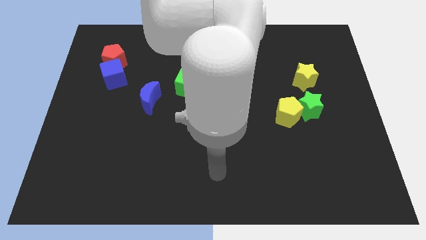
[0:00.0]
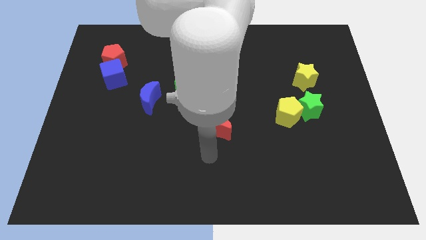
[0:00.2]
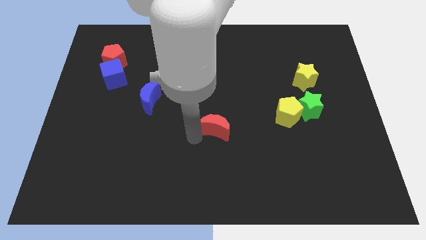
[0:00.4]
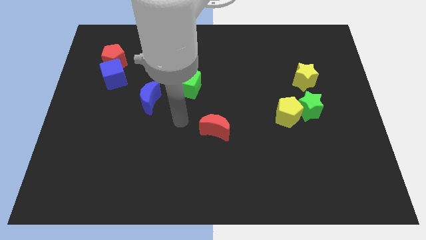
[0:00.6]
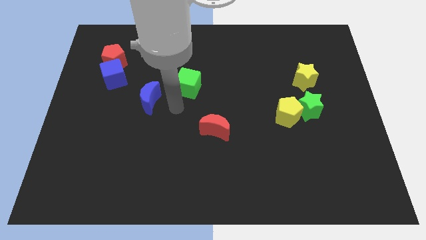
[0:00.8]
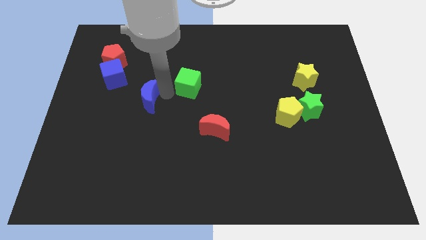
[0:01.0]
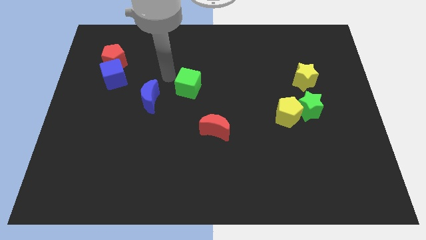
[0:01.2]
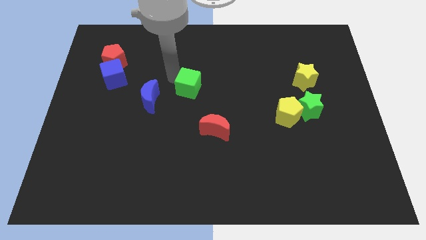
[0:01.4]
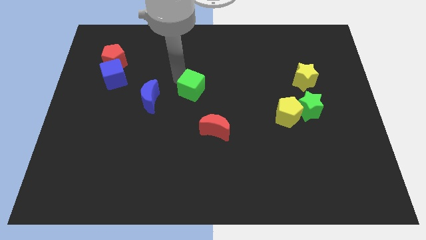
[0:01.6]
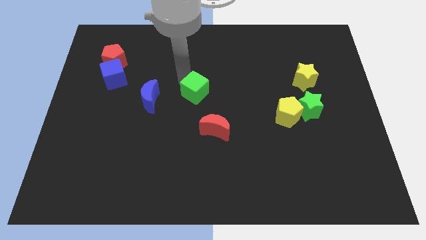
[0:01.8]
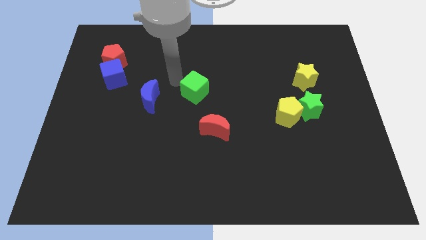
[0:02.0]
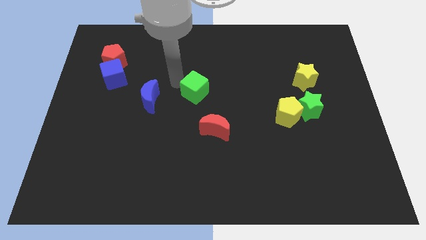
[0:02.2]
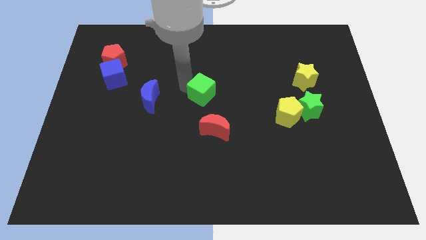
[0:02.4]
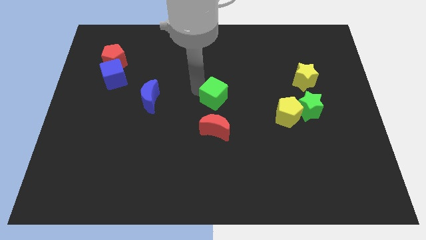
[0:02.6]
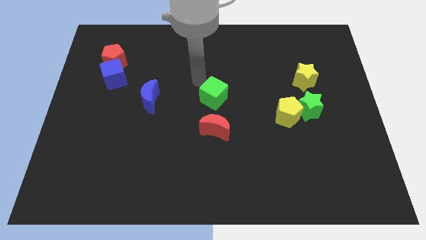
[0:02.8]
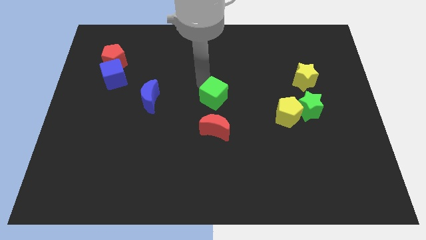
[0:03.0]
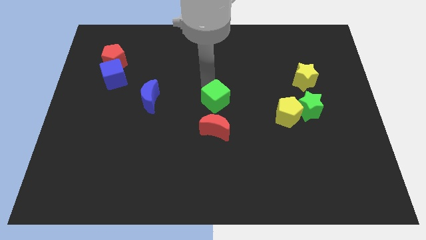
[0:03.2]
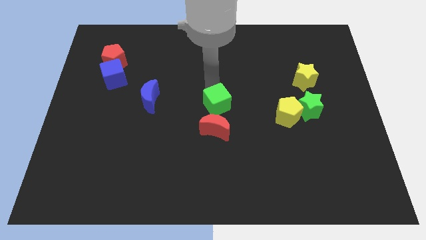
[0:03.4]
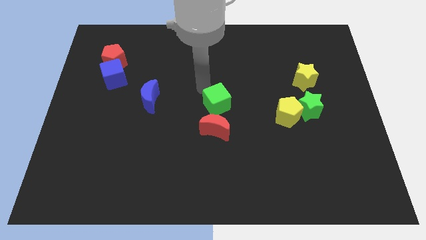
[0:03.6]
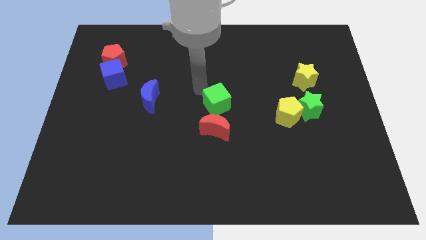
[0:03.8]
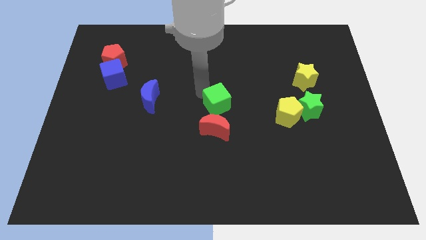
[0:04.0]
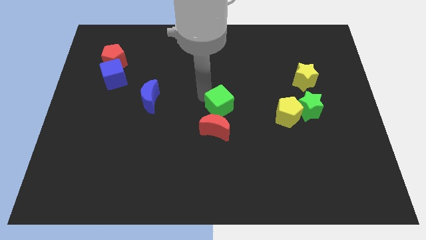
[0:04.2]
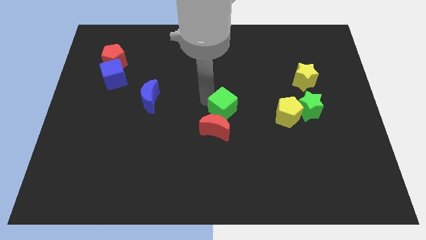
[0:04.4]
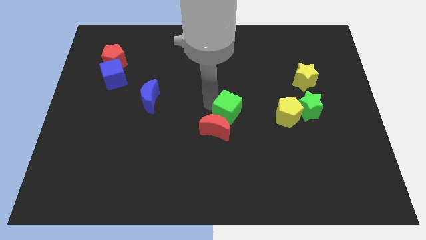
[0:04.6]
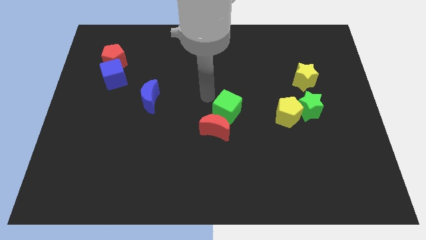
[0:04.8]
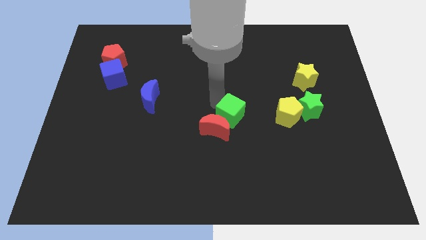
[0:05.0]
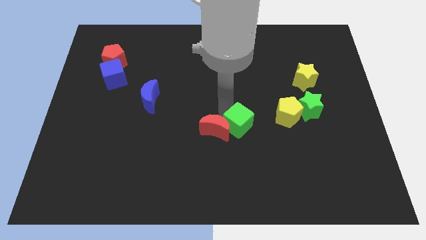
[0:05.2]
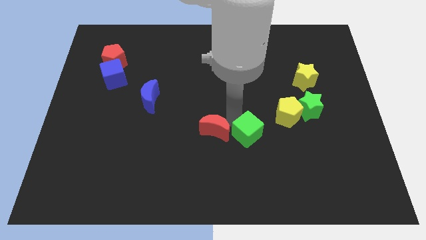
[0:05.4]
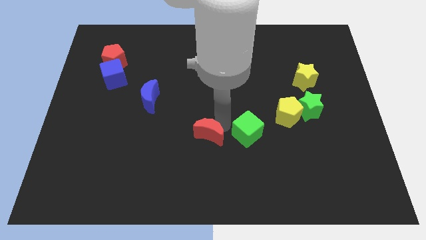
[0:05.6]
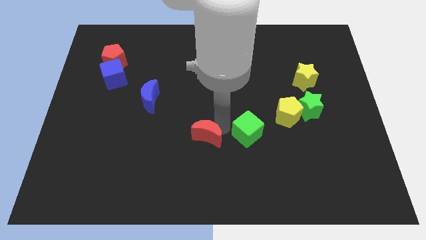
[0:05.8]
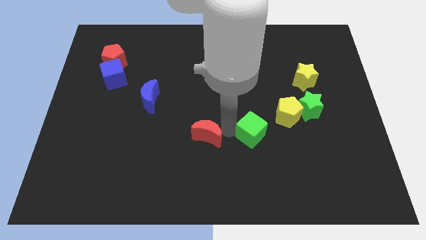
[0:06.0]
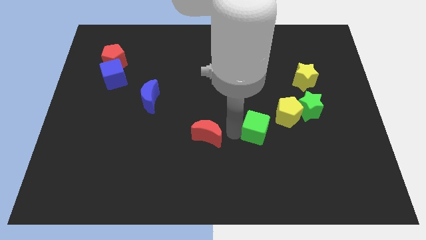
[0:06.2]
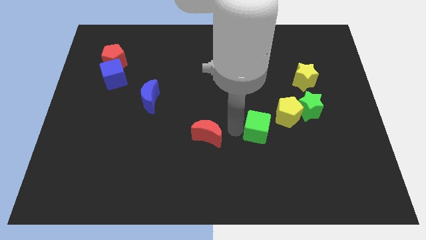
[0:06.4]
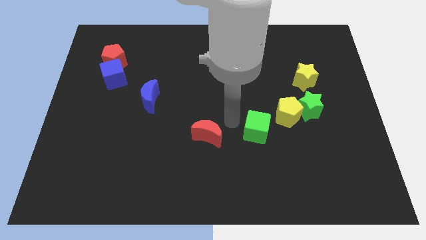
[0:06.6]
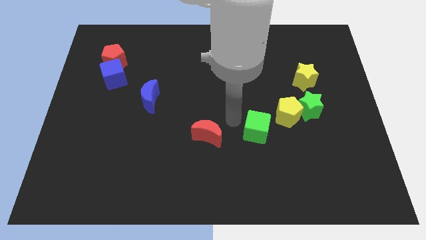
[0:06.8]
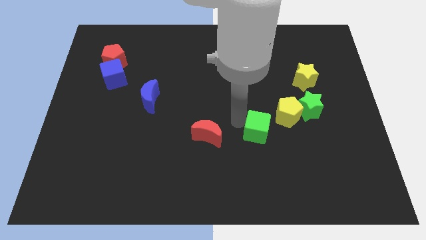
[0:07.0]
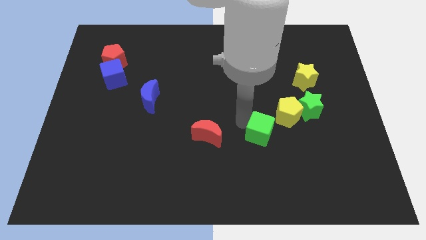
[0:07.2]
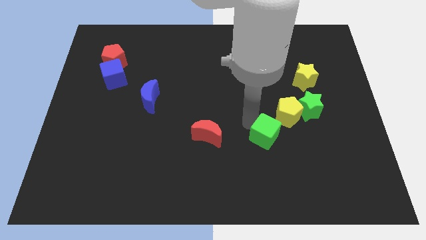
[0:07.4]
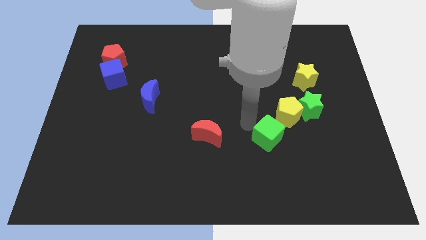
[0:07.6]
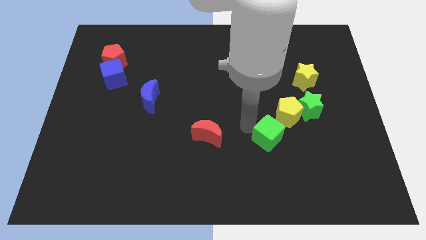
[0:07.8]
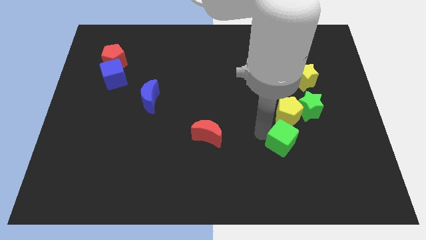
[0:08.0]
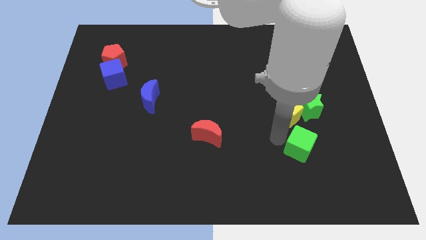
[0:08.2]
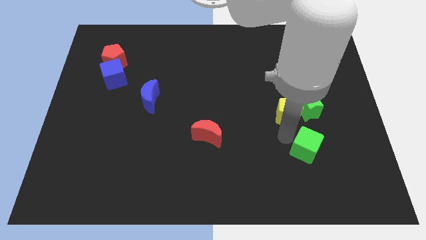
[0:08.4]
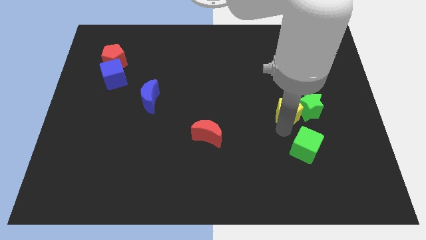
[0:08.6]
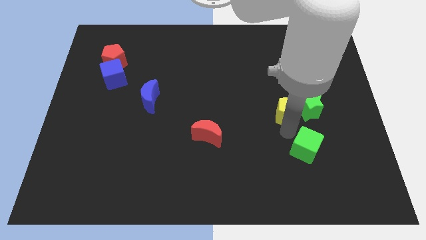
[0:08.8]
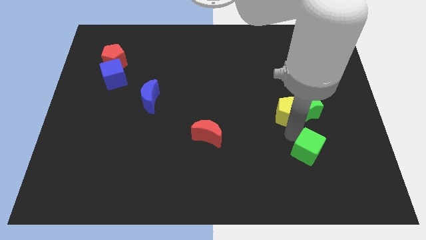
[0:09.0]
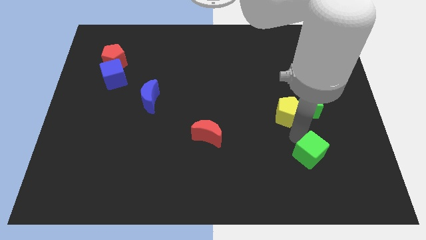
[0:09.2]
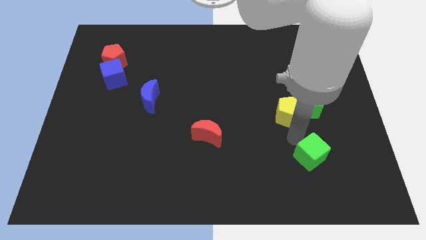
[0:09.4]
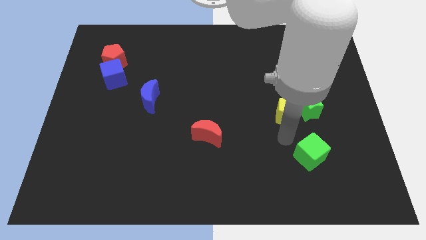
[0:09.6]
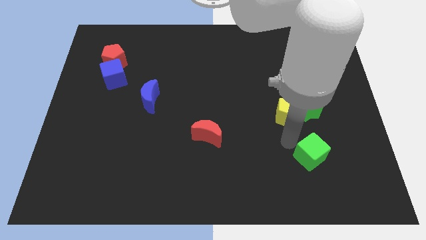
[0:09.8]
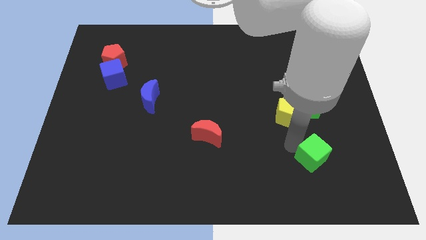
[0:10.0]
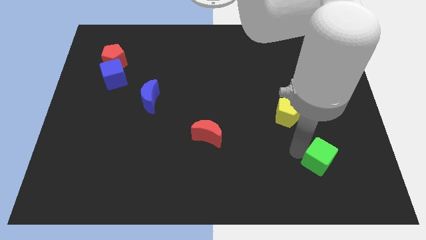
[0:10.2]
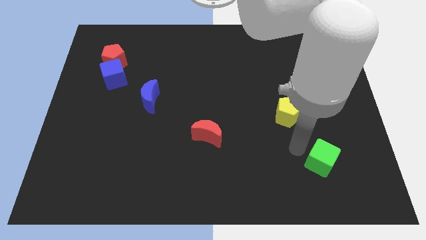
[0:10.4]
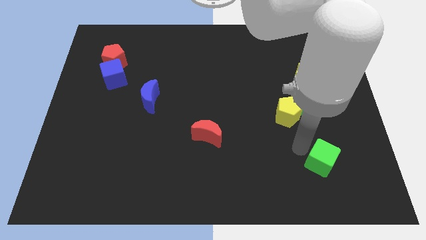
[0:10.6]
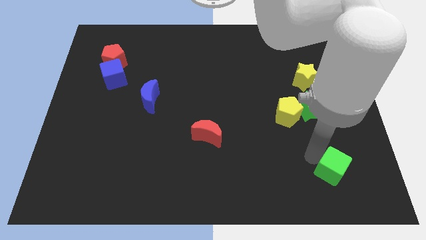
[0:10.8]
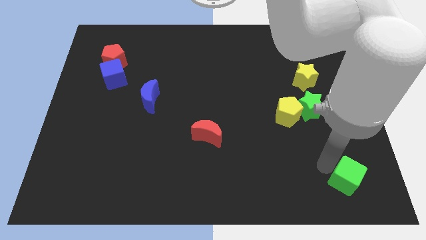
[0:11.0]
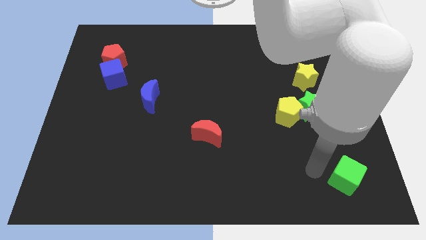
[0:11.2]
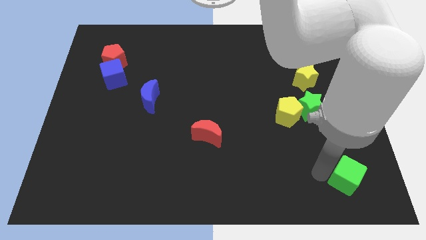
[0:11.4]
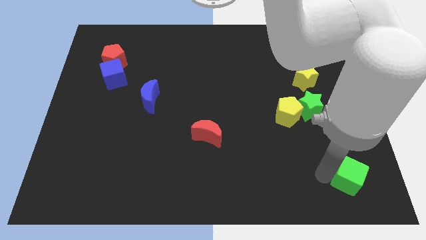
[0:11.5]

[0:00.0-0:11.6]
move the green cube to the bottom right of the board
